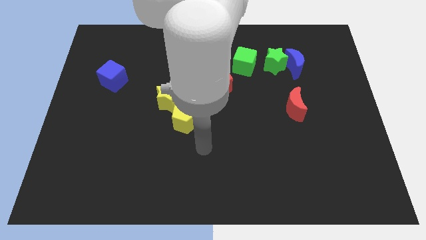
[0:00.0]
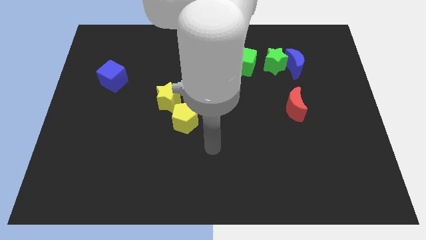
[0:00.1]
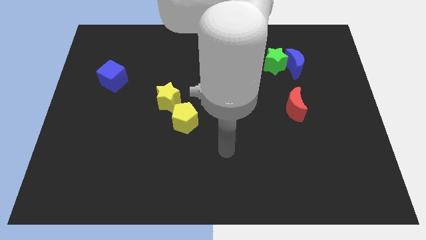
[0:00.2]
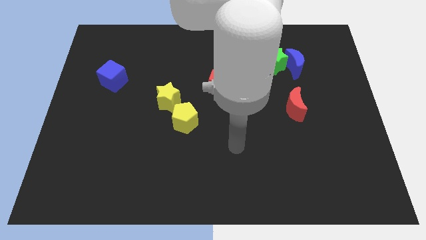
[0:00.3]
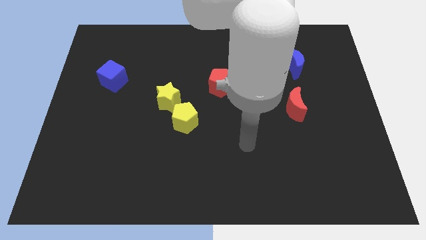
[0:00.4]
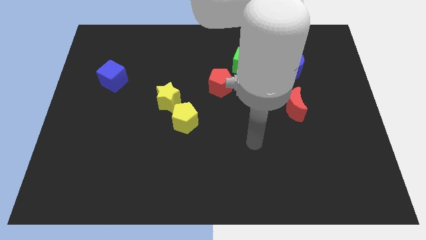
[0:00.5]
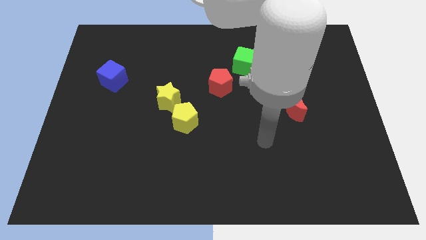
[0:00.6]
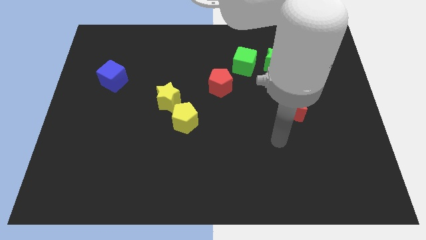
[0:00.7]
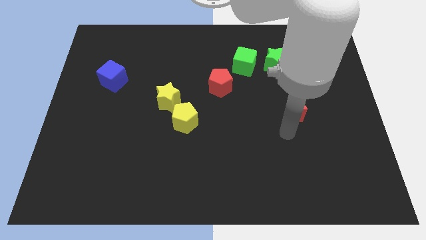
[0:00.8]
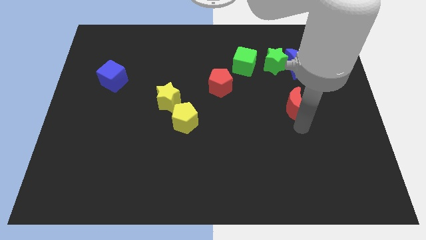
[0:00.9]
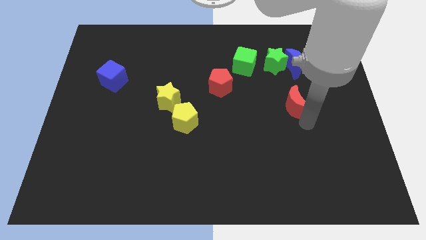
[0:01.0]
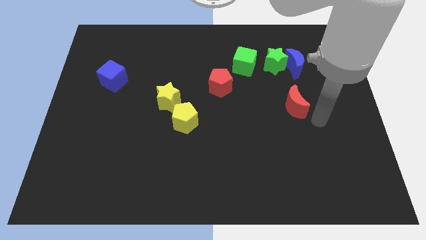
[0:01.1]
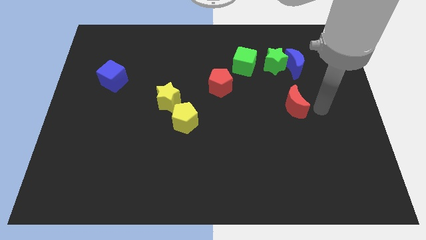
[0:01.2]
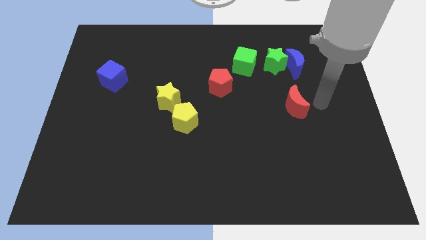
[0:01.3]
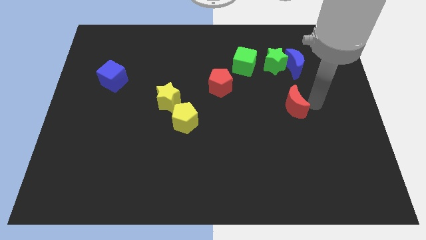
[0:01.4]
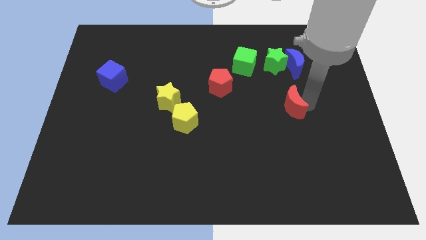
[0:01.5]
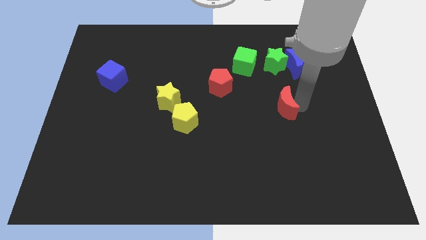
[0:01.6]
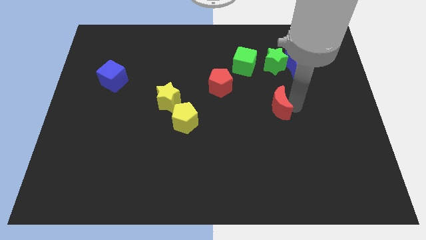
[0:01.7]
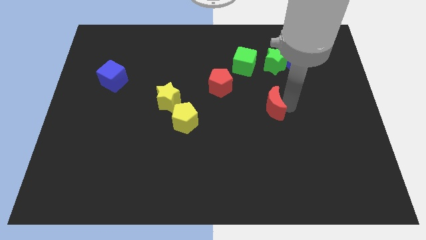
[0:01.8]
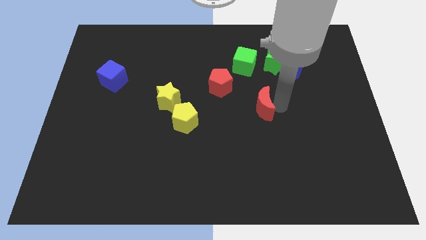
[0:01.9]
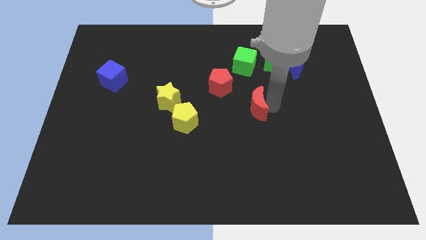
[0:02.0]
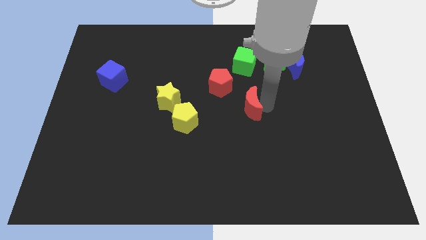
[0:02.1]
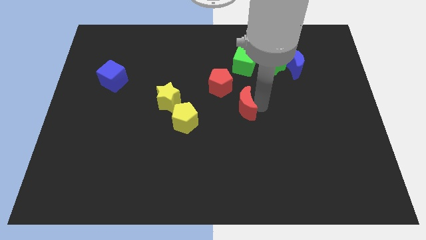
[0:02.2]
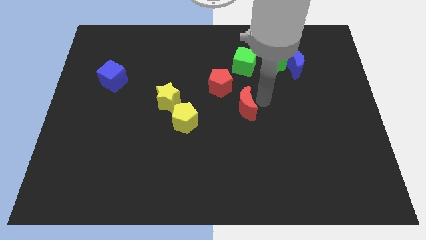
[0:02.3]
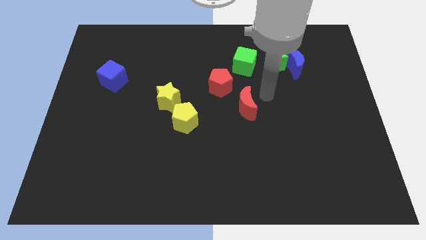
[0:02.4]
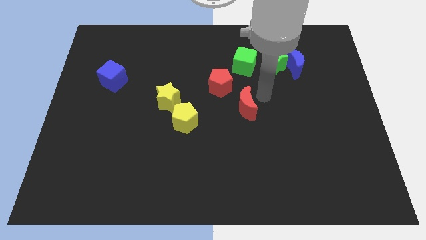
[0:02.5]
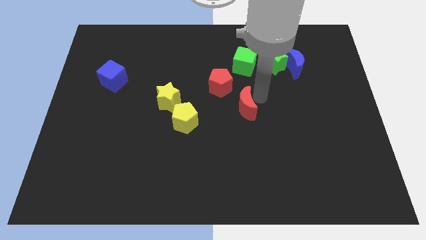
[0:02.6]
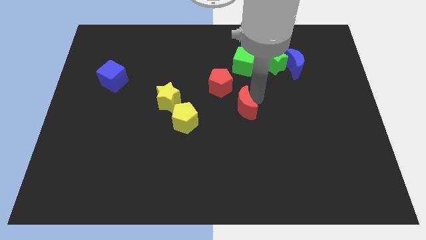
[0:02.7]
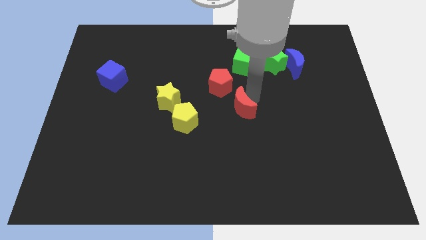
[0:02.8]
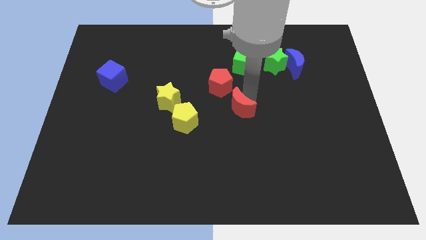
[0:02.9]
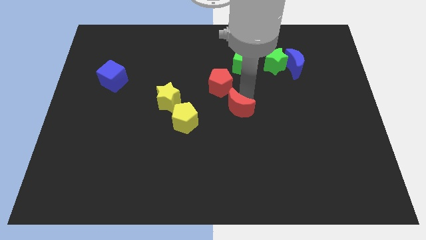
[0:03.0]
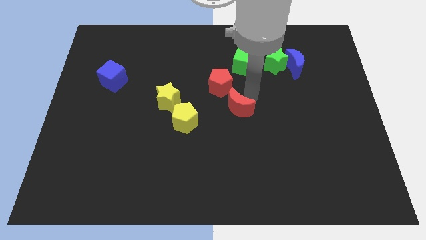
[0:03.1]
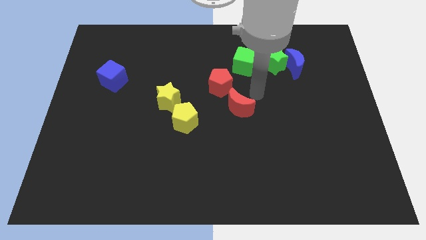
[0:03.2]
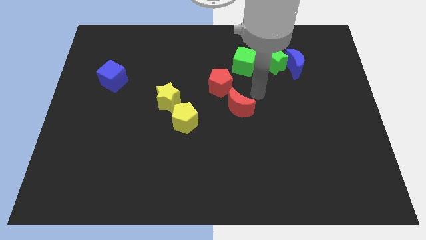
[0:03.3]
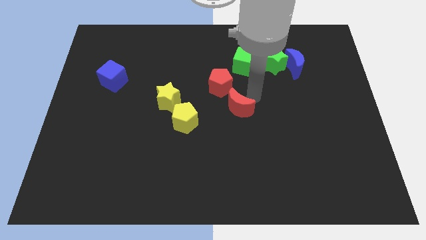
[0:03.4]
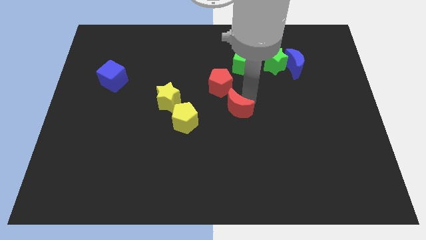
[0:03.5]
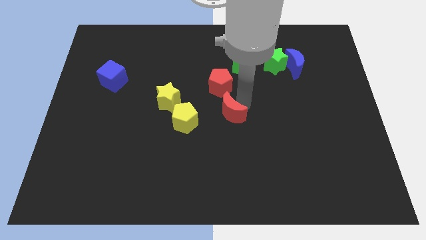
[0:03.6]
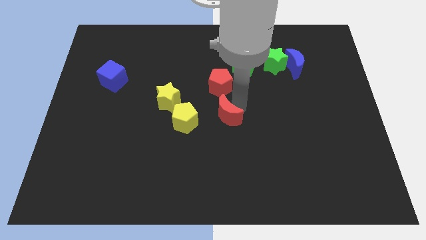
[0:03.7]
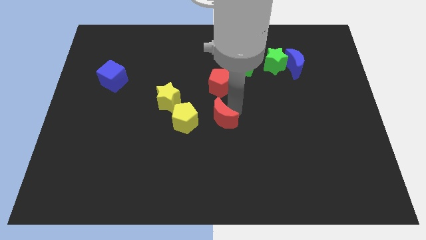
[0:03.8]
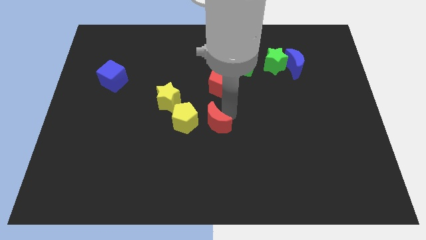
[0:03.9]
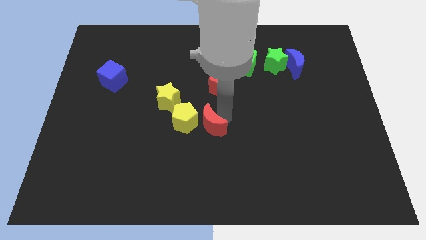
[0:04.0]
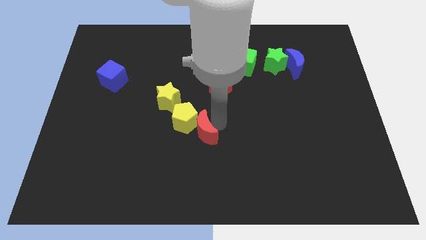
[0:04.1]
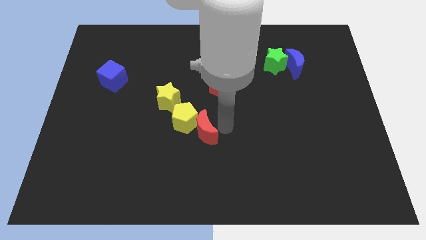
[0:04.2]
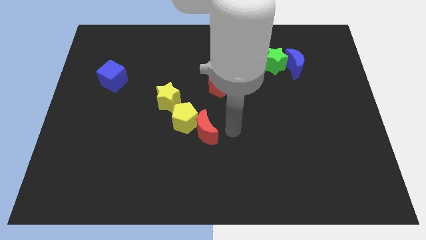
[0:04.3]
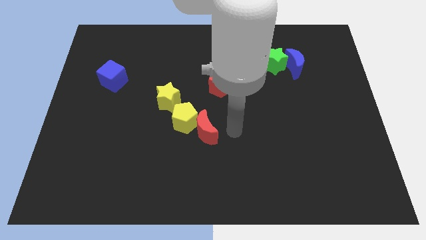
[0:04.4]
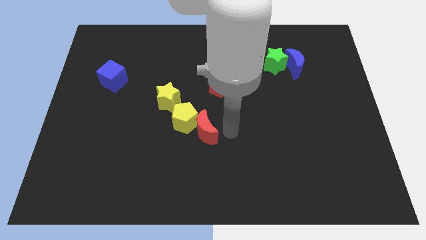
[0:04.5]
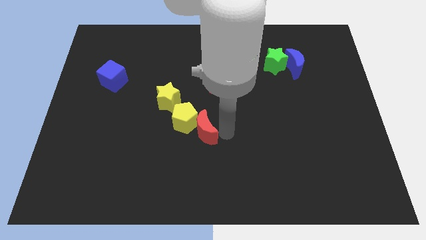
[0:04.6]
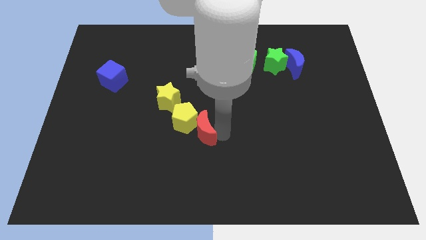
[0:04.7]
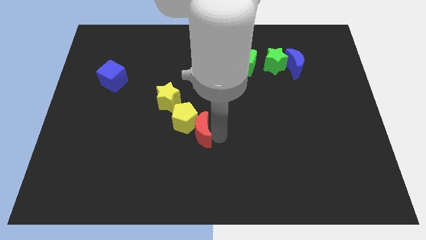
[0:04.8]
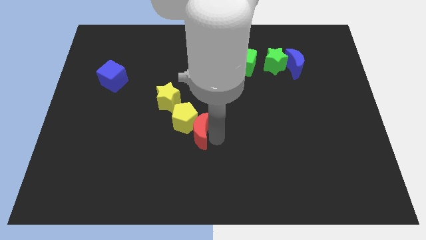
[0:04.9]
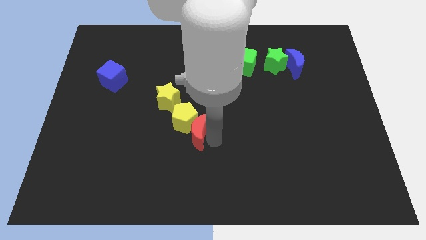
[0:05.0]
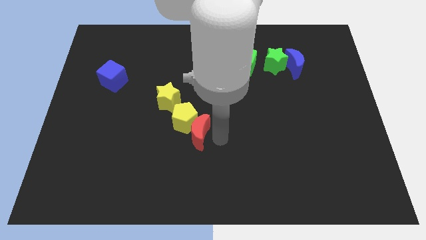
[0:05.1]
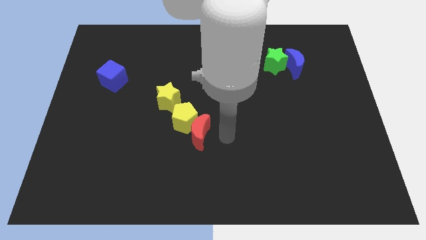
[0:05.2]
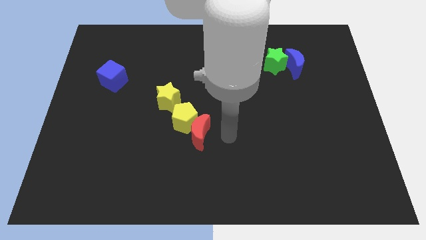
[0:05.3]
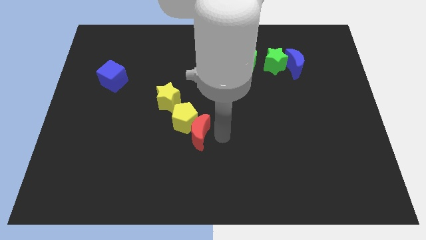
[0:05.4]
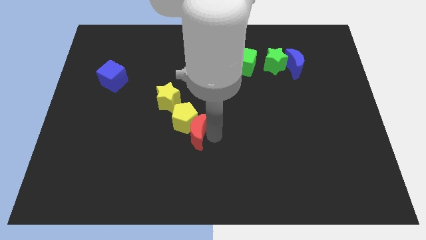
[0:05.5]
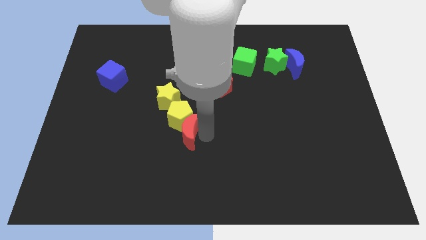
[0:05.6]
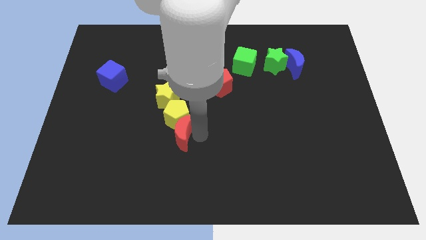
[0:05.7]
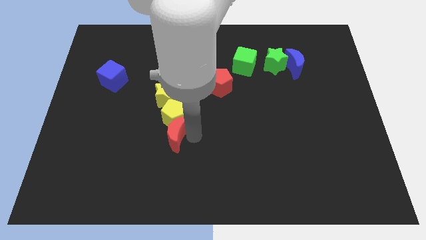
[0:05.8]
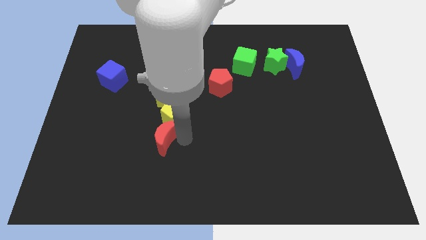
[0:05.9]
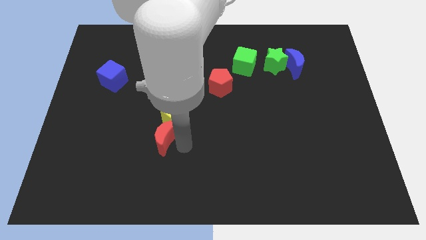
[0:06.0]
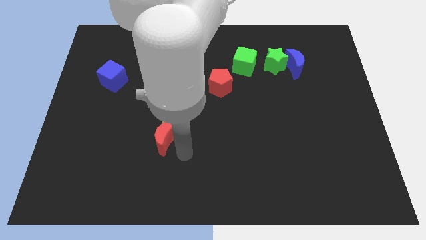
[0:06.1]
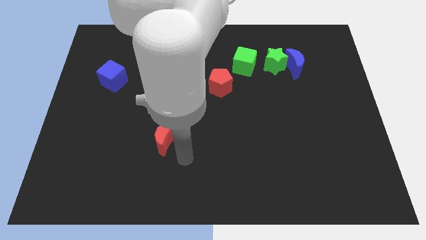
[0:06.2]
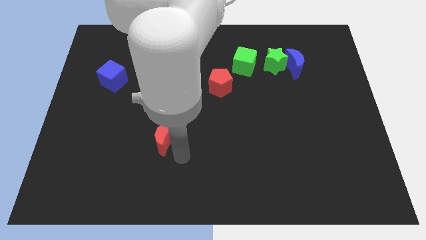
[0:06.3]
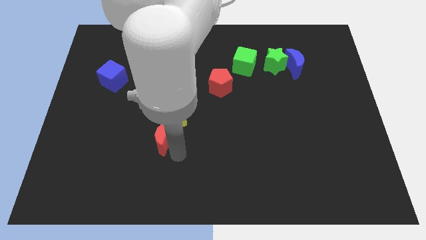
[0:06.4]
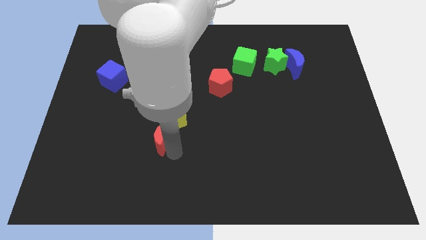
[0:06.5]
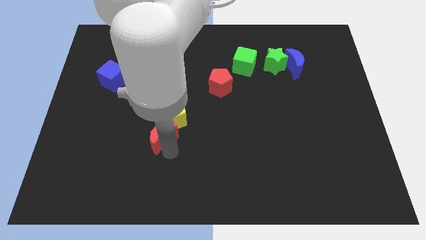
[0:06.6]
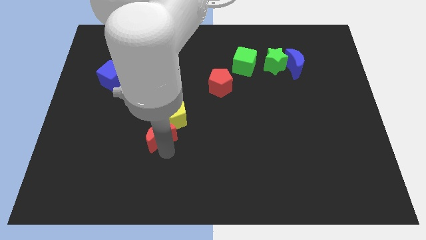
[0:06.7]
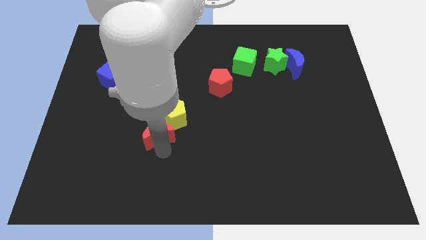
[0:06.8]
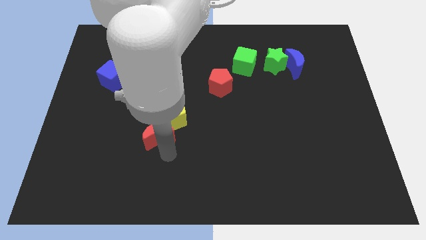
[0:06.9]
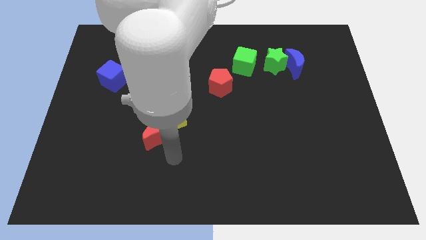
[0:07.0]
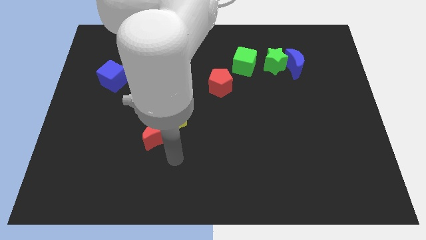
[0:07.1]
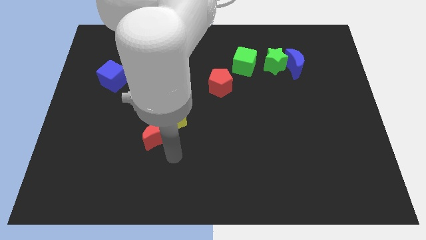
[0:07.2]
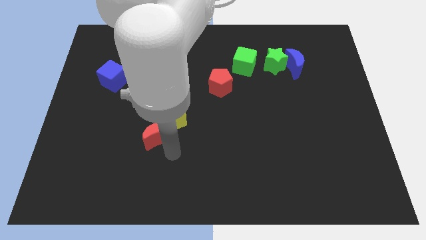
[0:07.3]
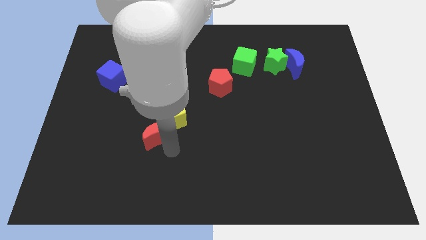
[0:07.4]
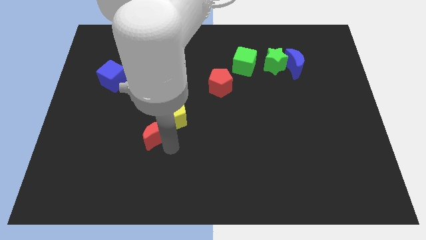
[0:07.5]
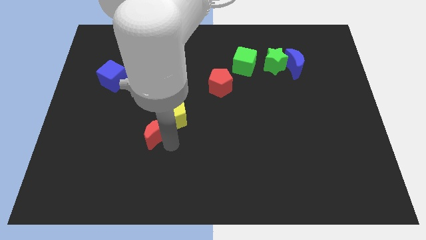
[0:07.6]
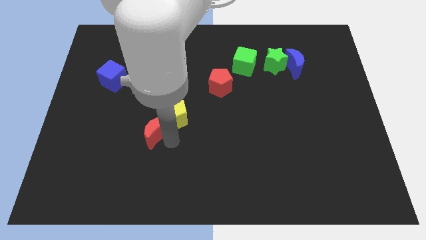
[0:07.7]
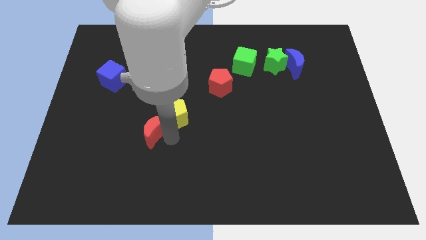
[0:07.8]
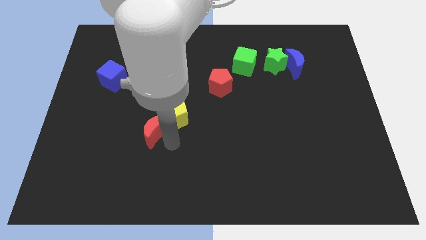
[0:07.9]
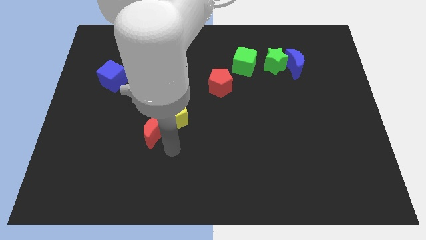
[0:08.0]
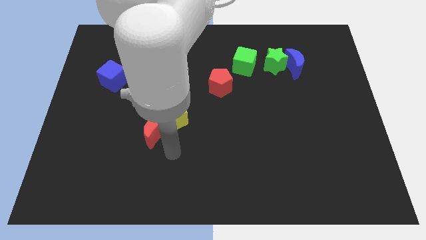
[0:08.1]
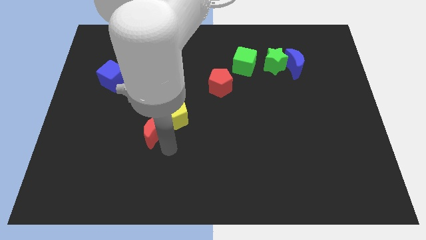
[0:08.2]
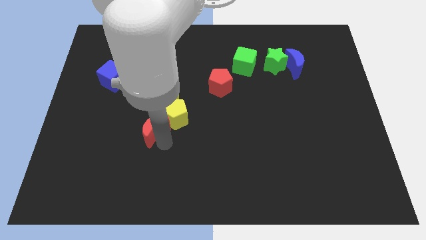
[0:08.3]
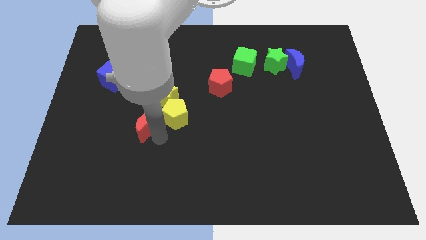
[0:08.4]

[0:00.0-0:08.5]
slide the red moon to the bottom left of the yellow star
